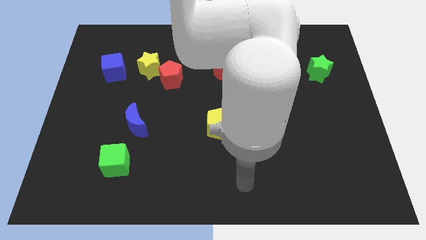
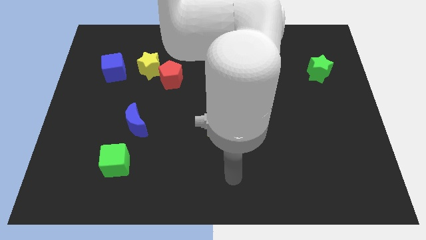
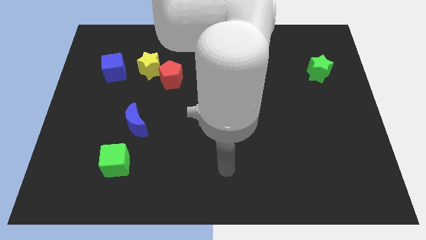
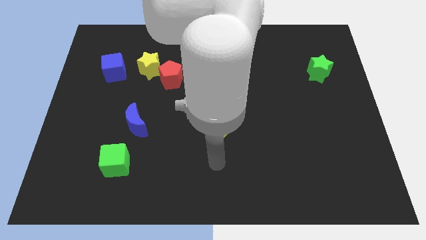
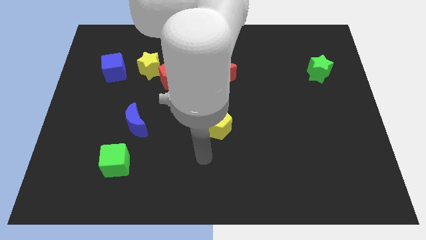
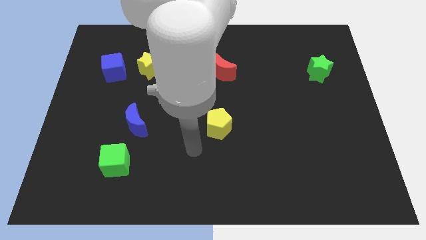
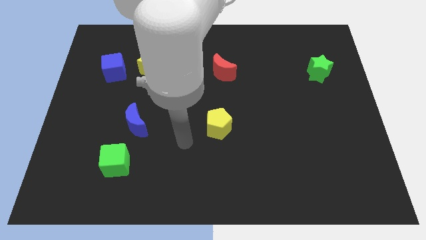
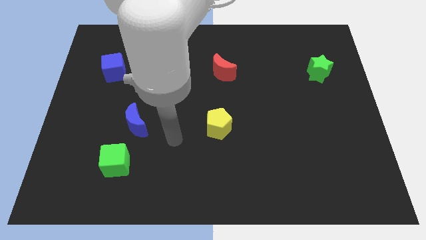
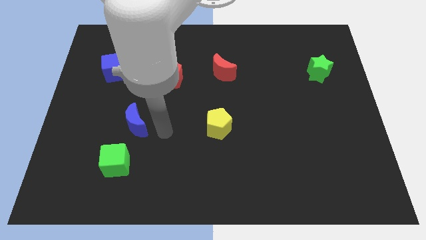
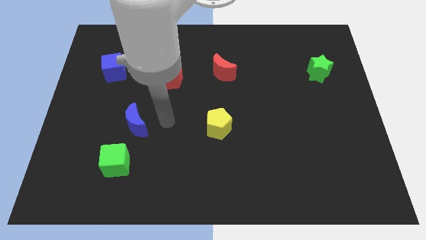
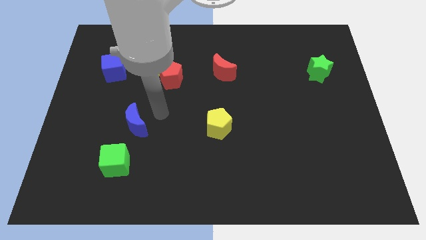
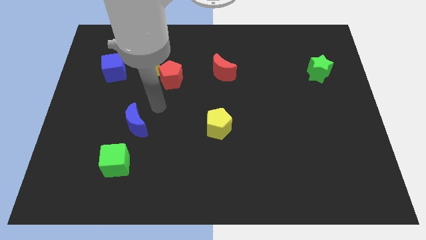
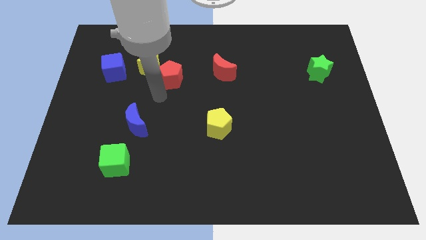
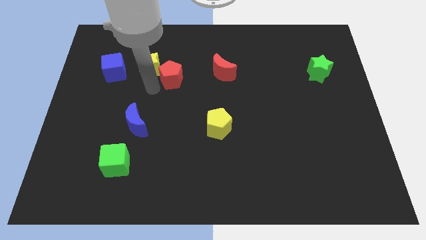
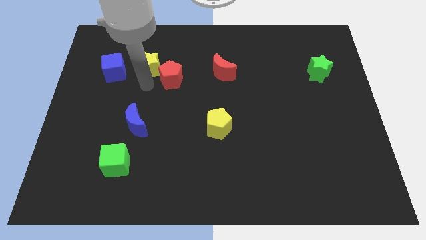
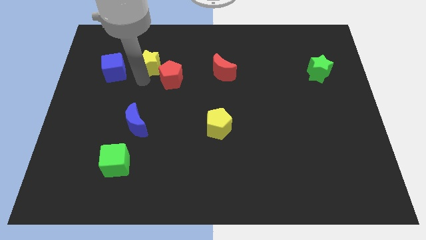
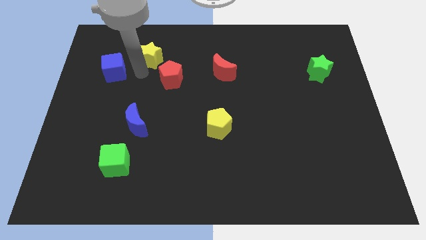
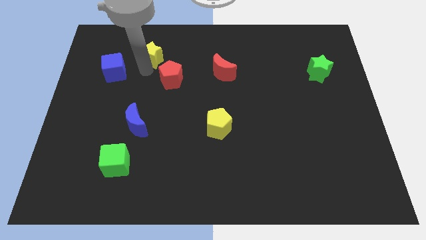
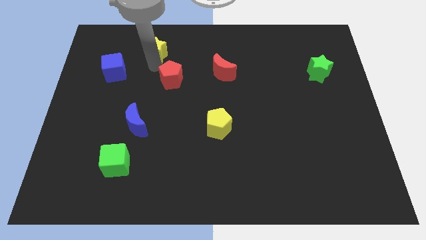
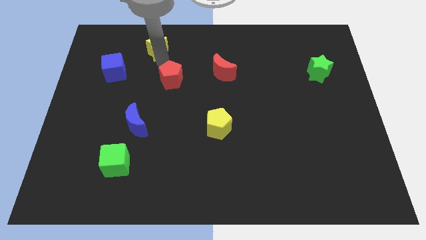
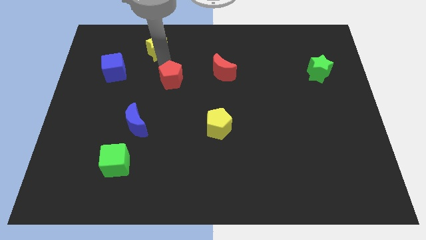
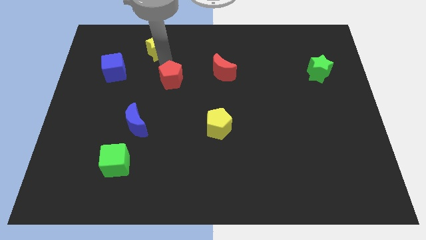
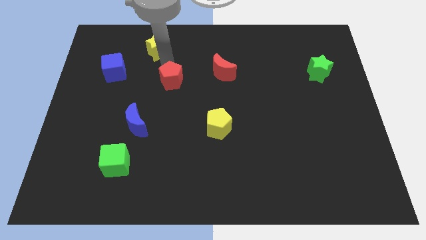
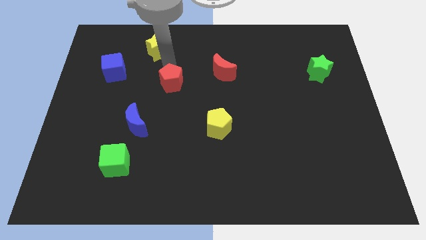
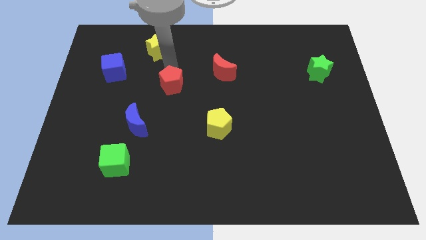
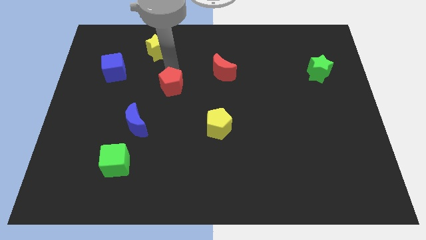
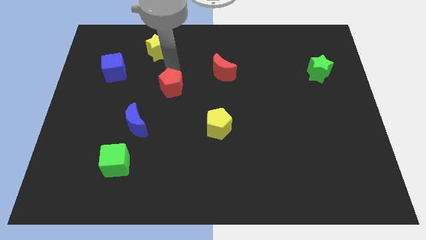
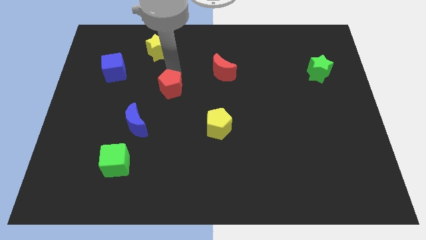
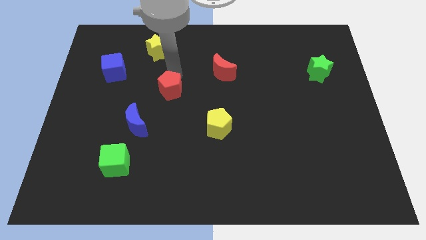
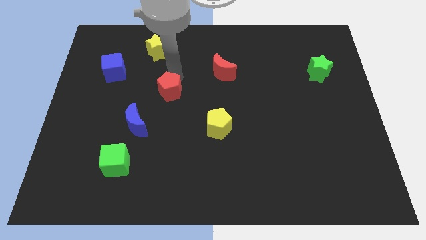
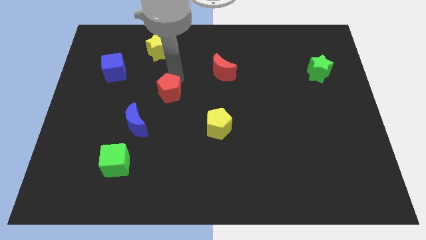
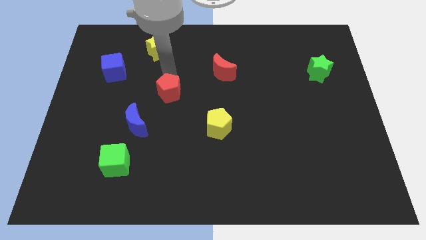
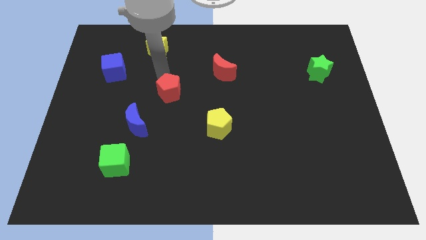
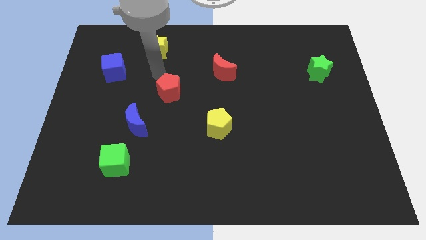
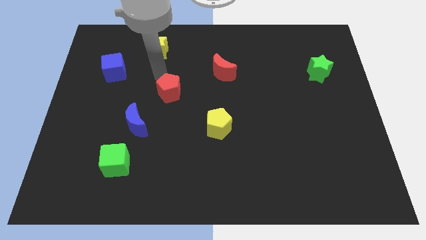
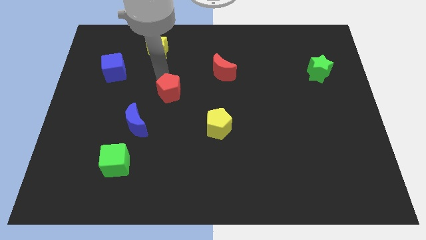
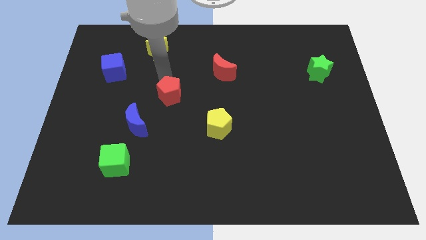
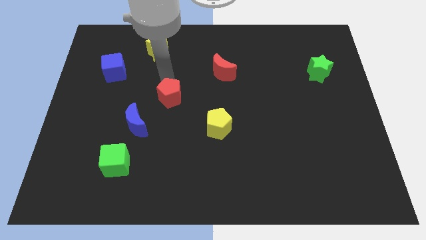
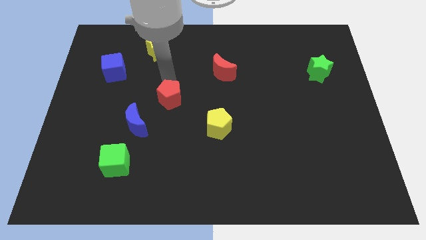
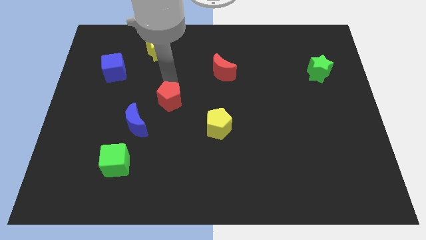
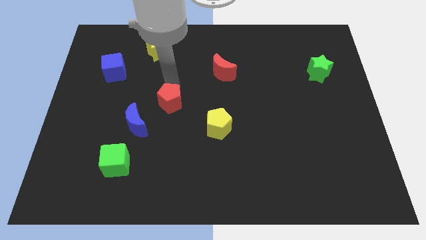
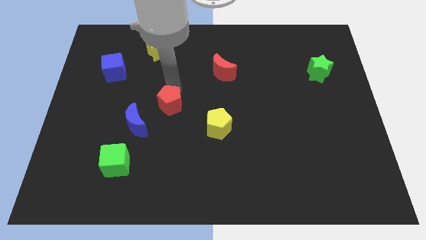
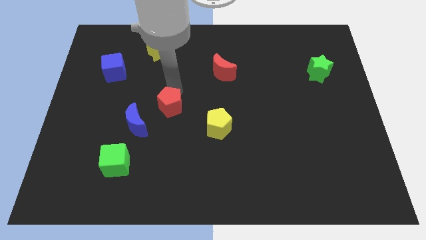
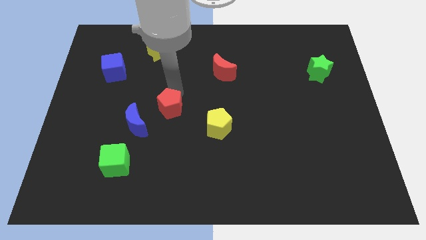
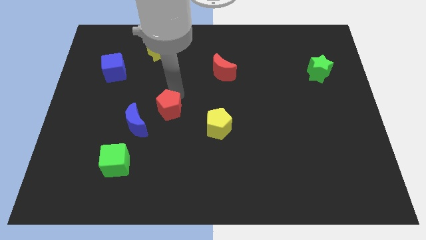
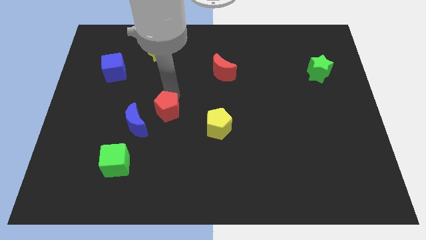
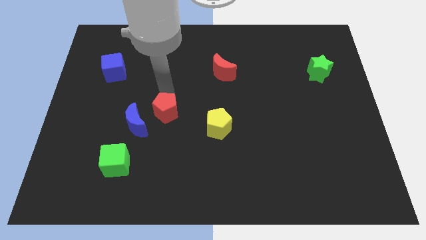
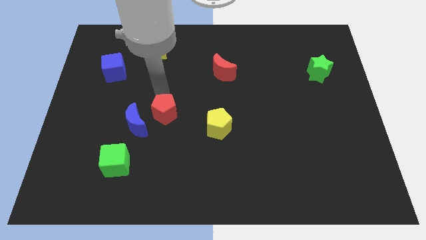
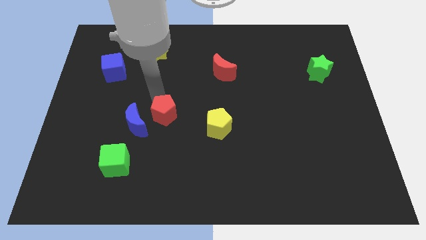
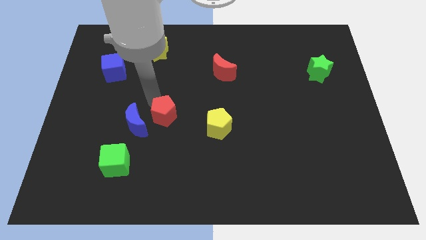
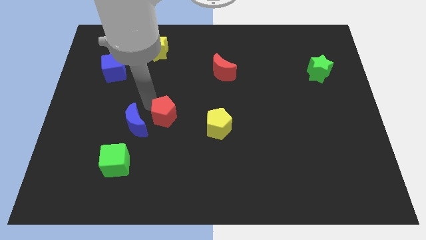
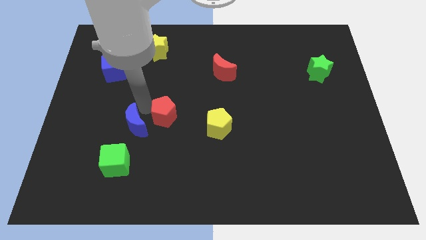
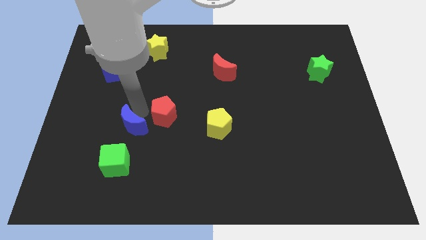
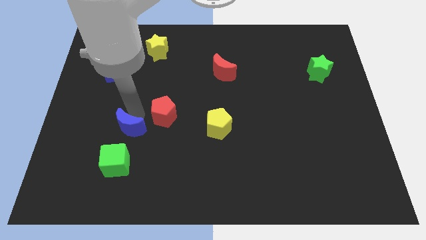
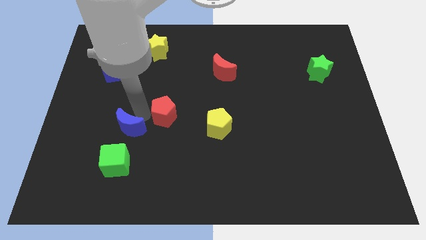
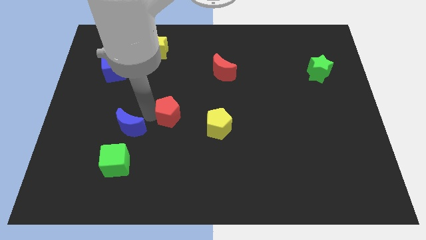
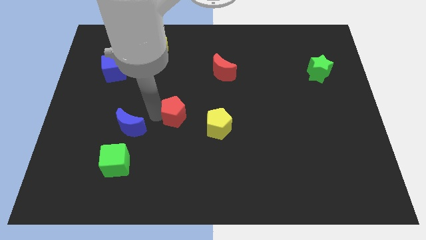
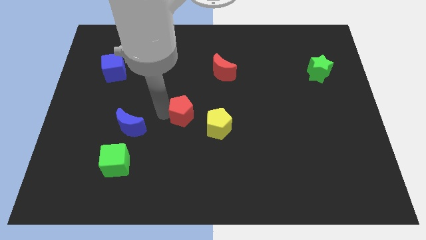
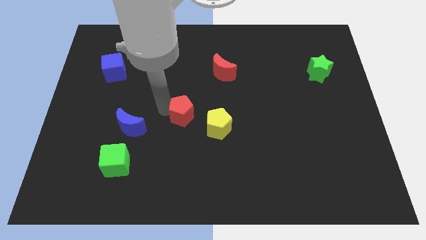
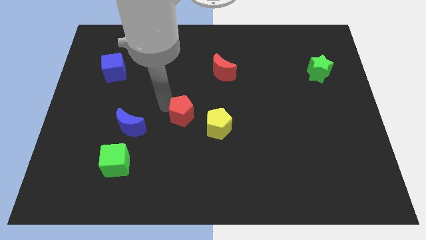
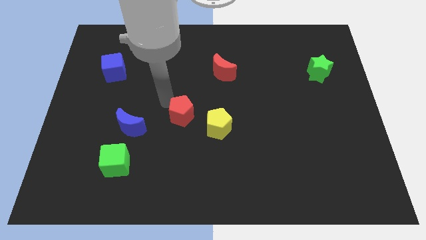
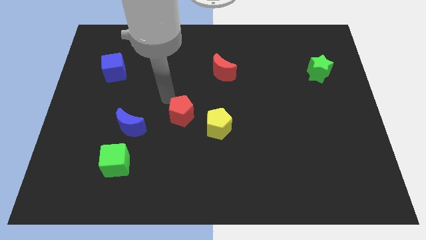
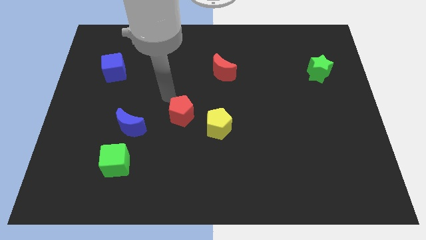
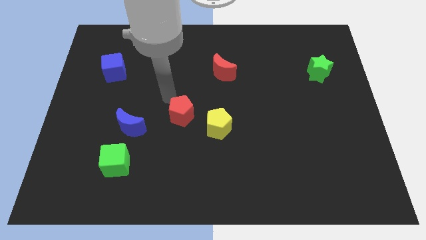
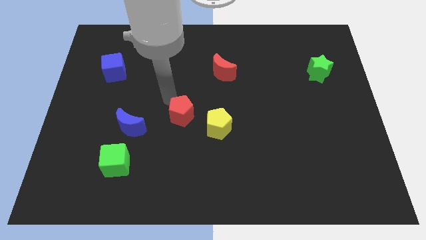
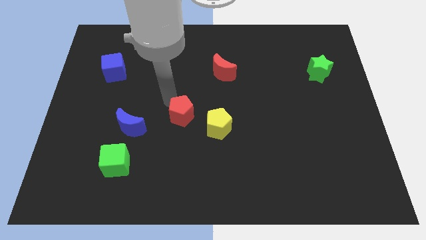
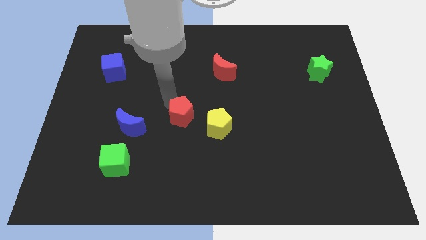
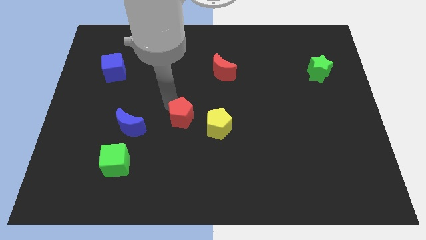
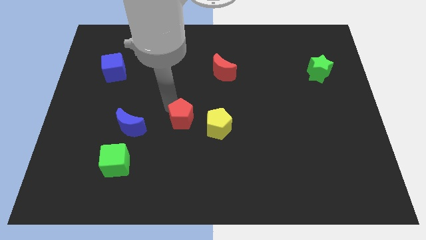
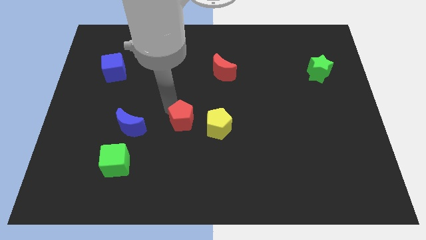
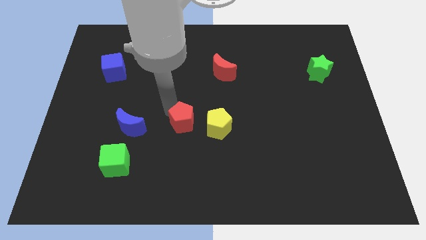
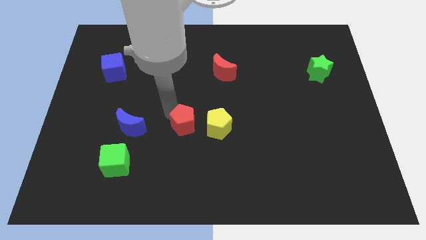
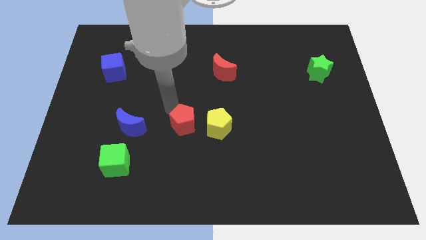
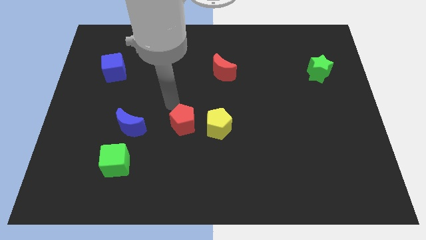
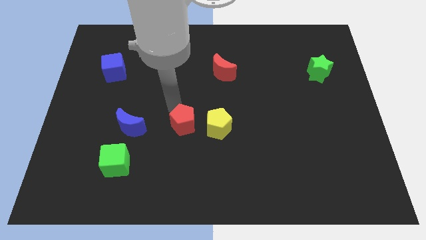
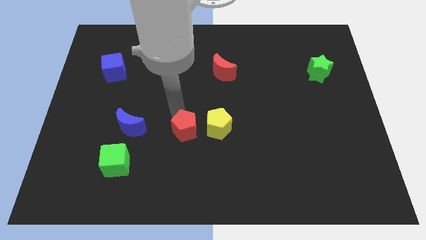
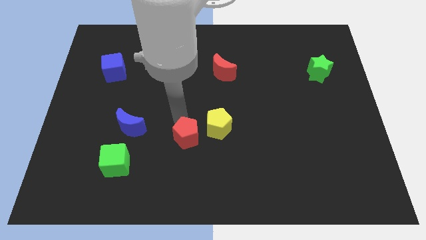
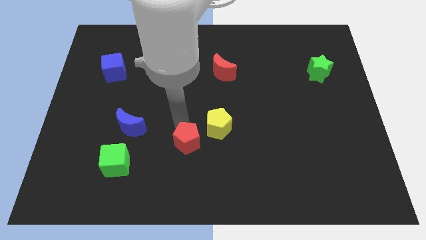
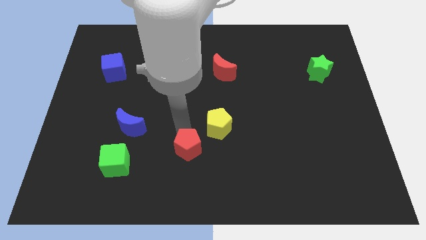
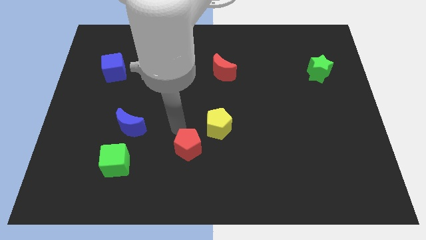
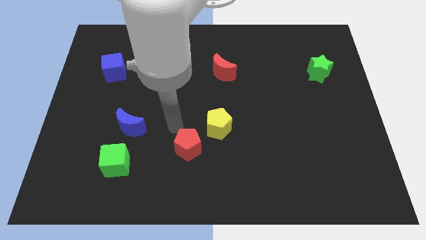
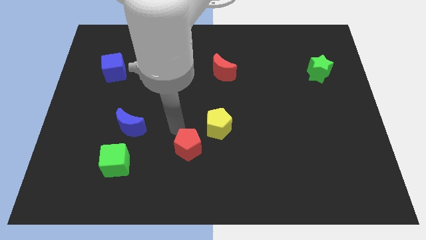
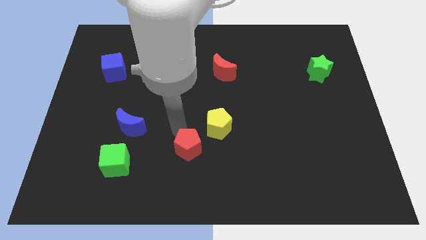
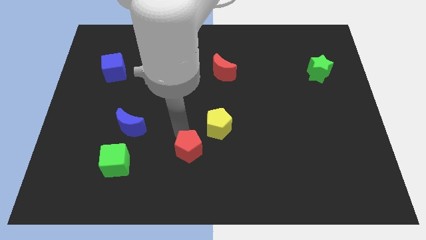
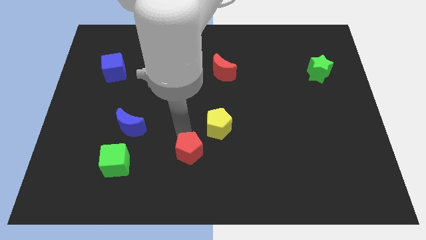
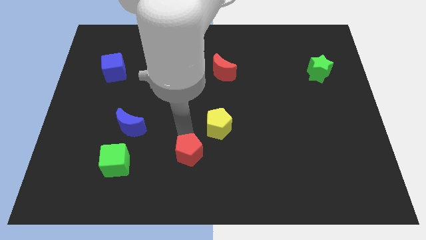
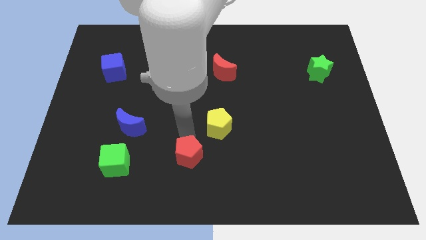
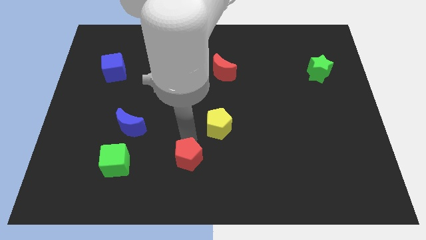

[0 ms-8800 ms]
slide the red pentagon to the bottom
